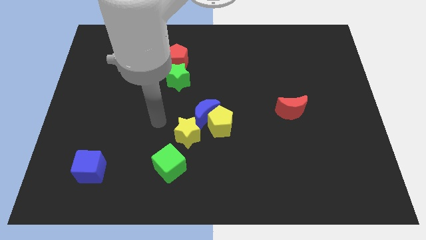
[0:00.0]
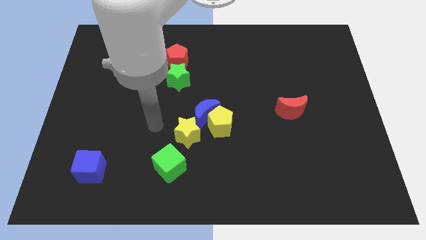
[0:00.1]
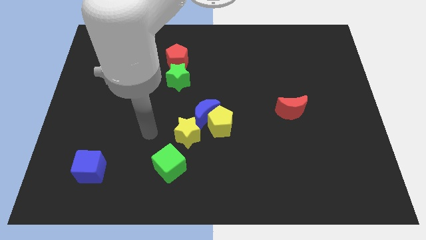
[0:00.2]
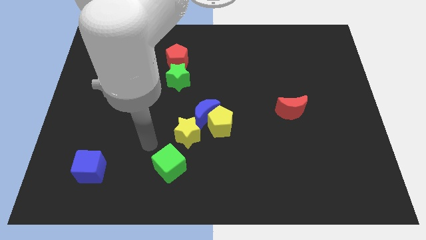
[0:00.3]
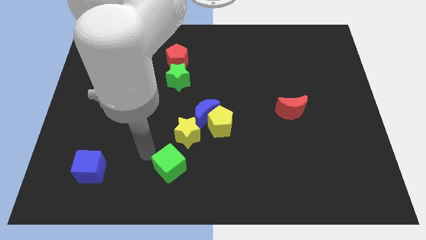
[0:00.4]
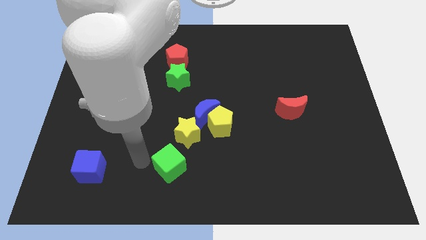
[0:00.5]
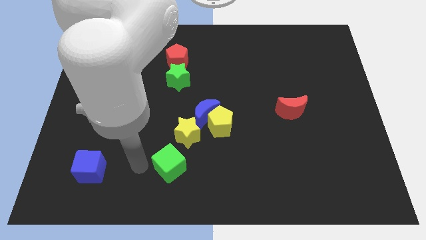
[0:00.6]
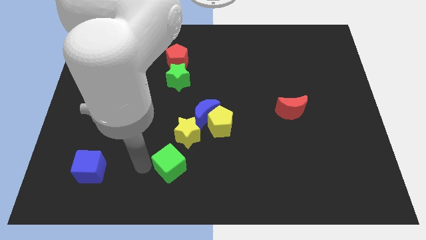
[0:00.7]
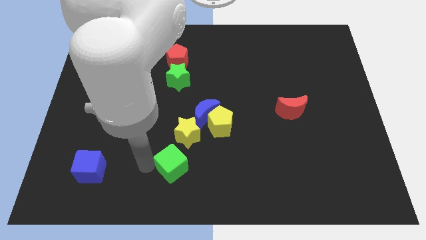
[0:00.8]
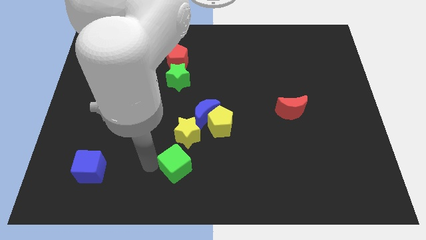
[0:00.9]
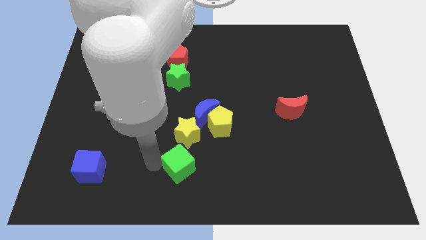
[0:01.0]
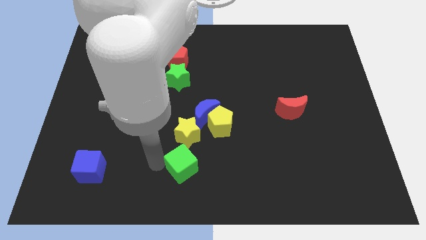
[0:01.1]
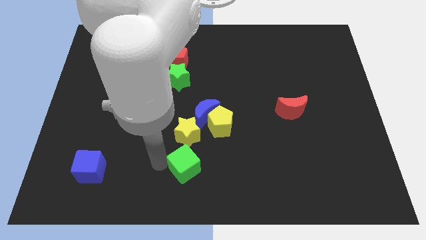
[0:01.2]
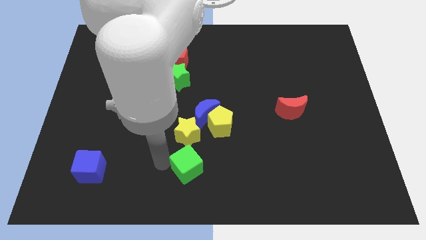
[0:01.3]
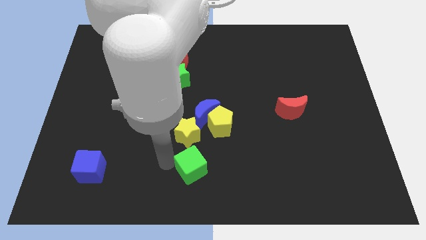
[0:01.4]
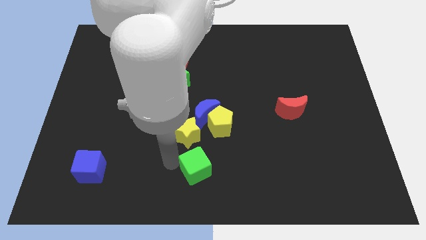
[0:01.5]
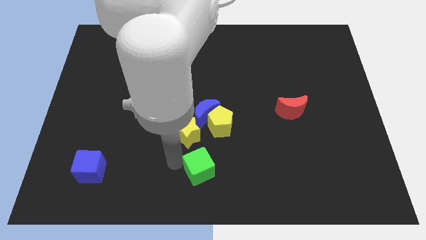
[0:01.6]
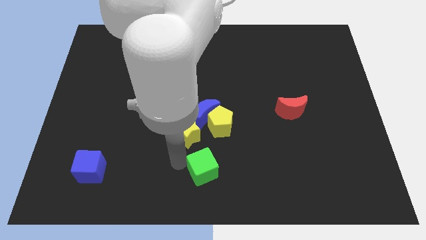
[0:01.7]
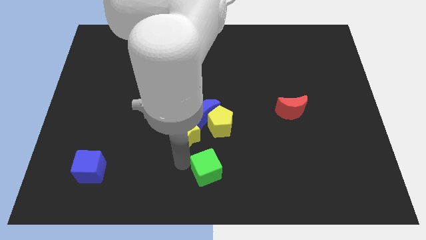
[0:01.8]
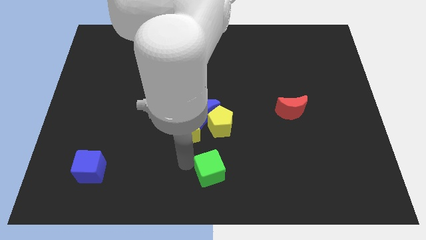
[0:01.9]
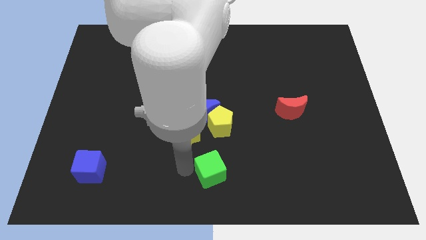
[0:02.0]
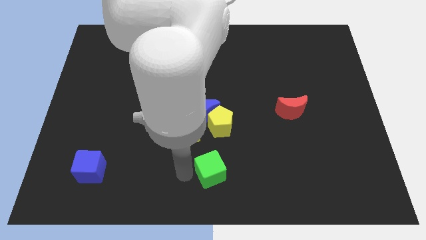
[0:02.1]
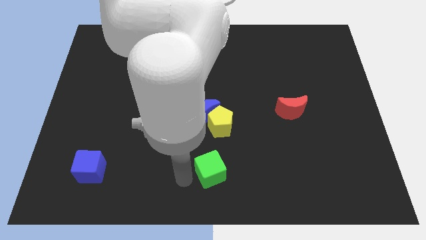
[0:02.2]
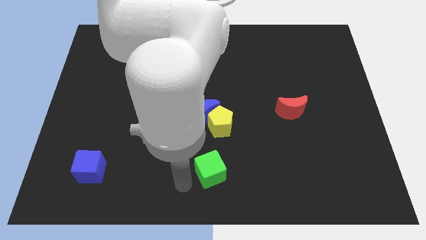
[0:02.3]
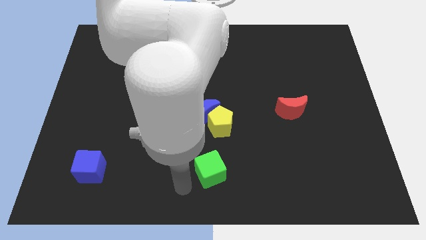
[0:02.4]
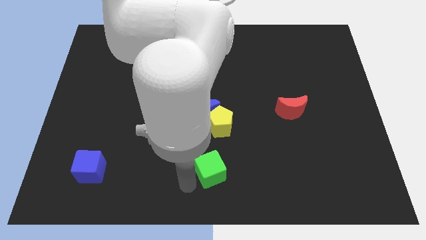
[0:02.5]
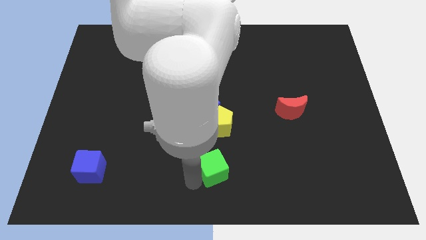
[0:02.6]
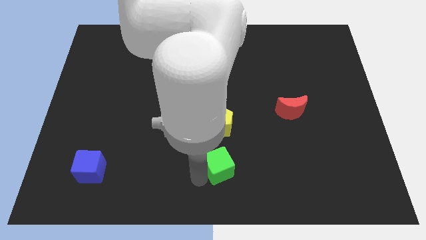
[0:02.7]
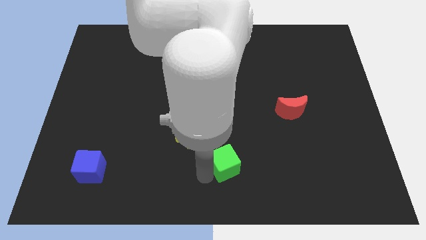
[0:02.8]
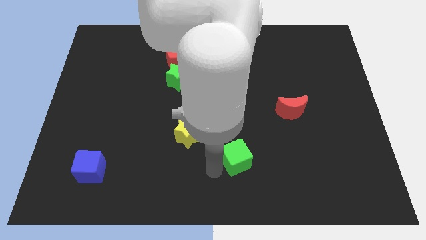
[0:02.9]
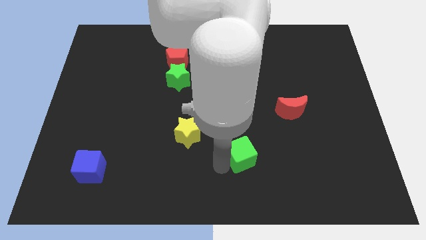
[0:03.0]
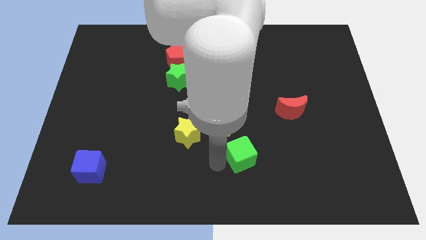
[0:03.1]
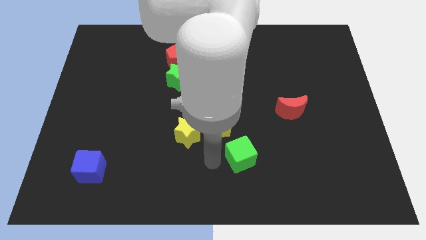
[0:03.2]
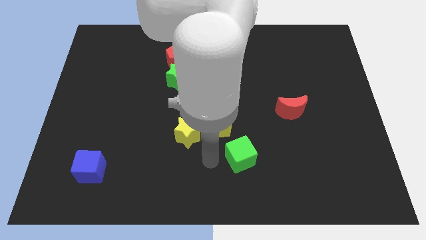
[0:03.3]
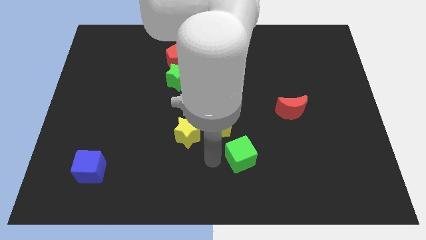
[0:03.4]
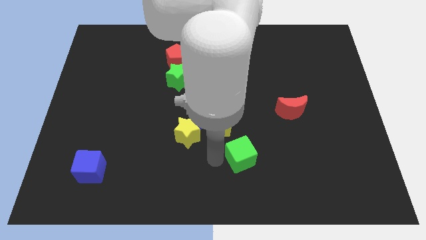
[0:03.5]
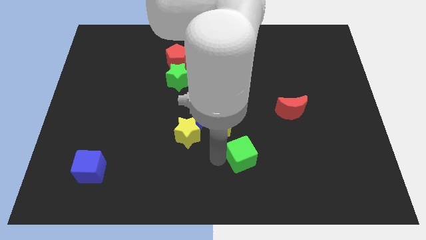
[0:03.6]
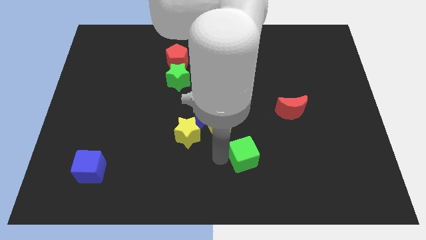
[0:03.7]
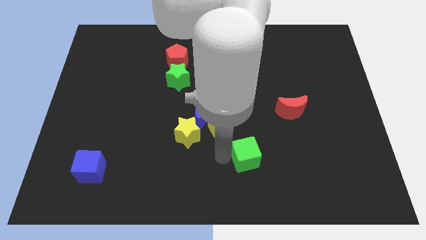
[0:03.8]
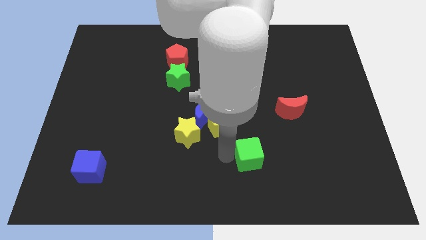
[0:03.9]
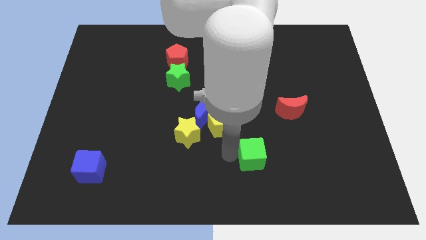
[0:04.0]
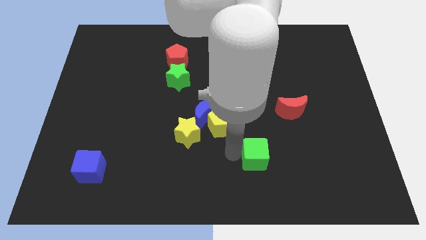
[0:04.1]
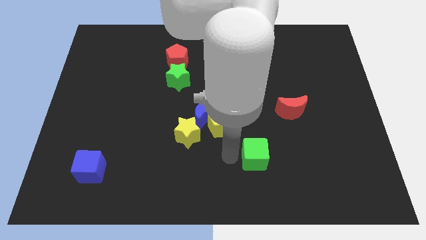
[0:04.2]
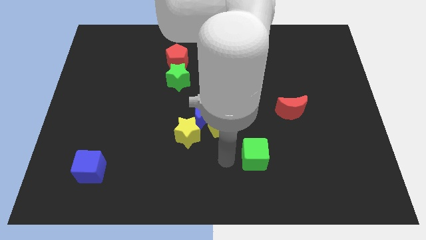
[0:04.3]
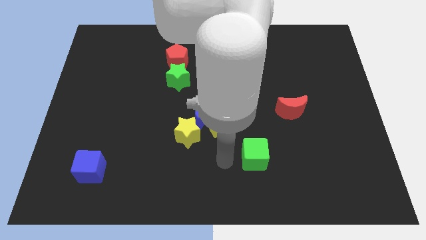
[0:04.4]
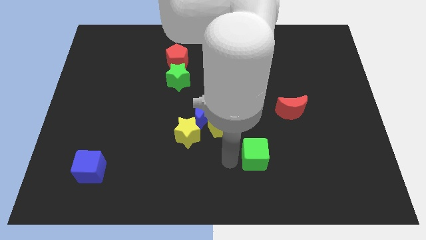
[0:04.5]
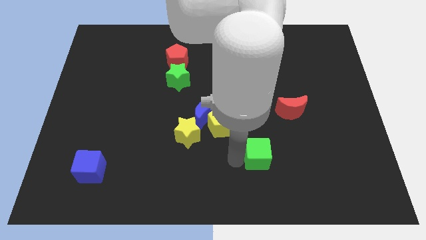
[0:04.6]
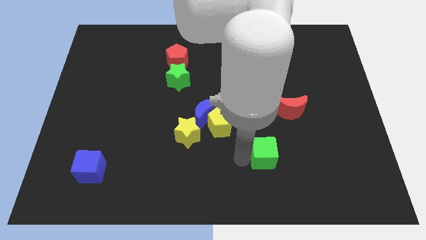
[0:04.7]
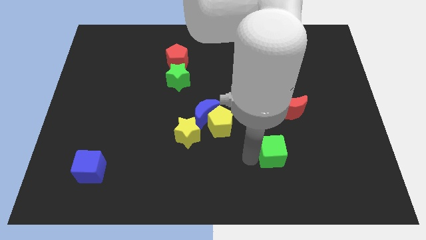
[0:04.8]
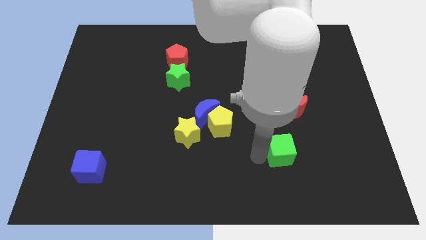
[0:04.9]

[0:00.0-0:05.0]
slide the green cube to the bottom of the red moon

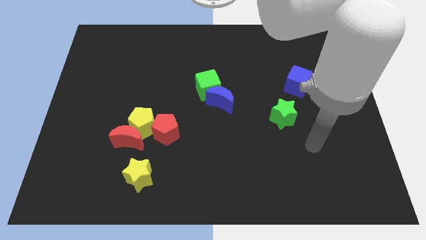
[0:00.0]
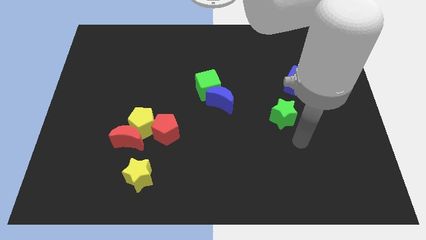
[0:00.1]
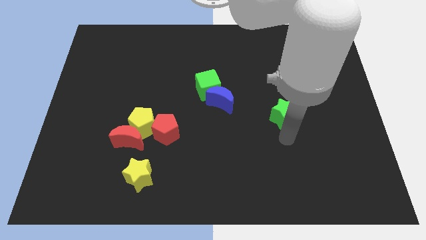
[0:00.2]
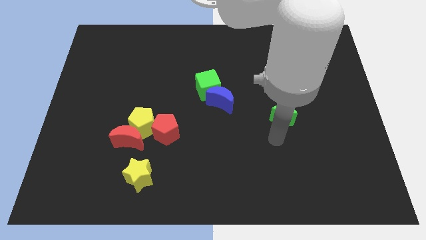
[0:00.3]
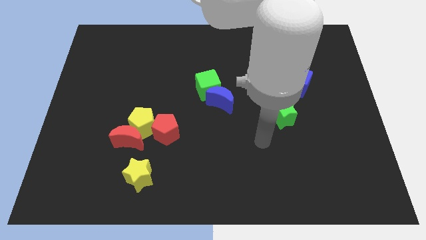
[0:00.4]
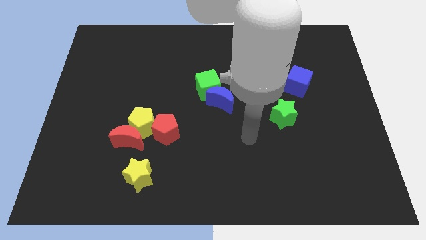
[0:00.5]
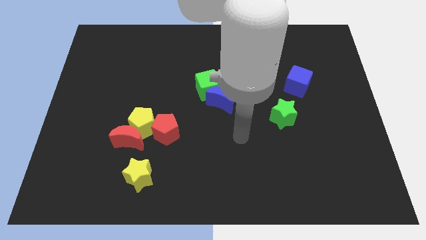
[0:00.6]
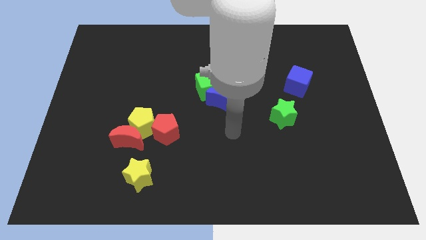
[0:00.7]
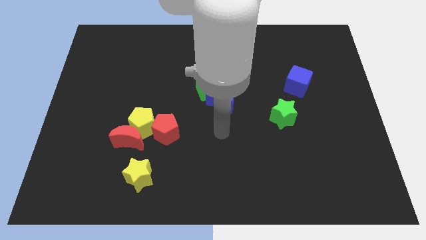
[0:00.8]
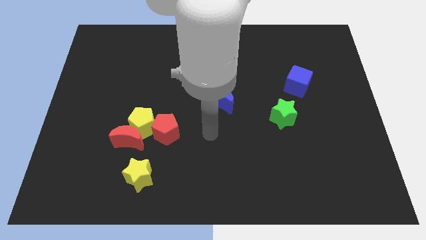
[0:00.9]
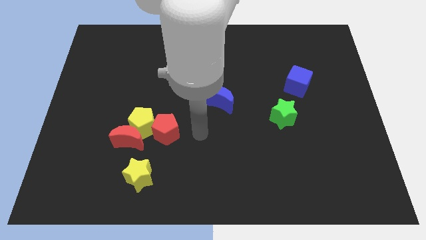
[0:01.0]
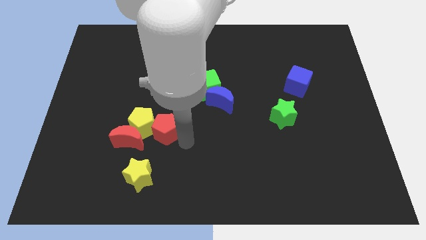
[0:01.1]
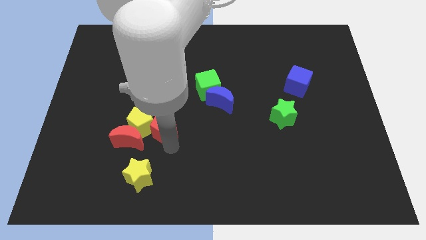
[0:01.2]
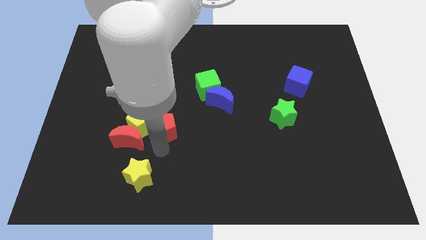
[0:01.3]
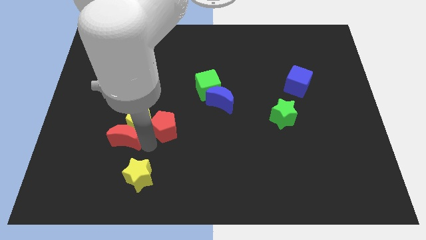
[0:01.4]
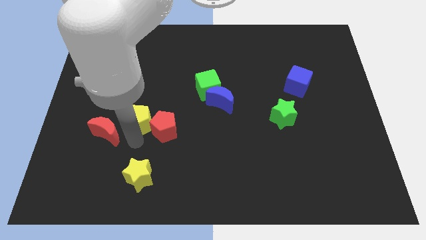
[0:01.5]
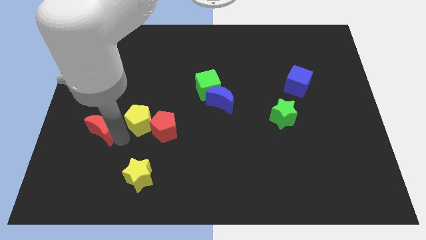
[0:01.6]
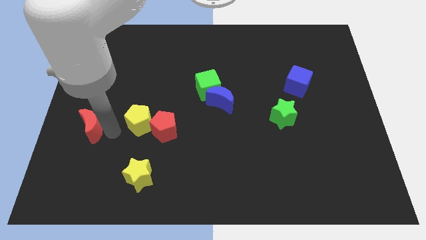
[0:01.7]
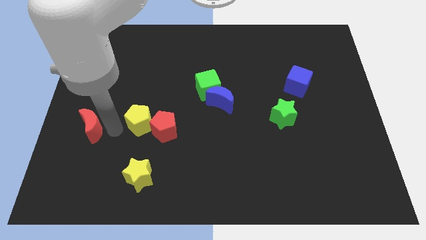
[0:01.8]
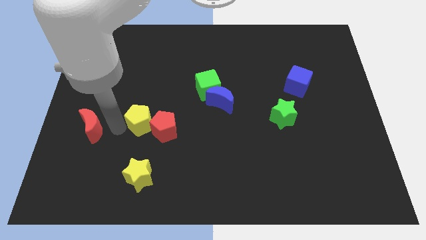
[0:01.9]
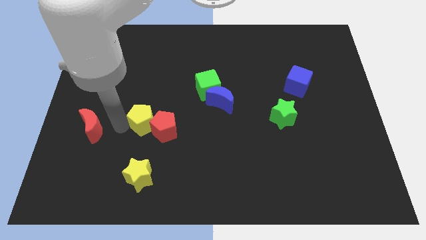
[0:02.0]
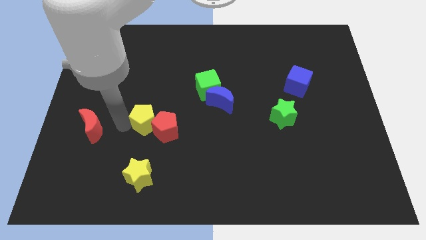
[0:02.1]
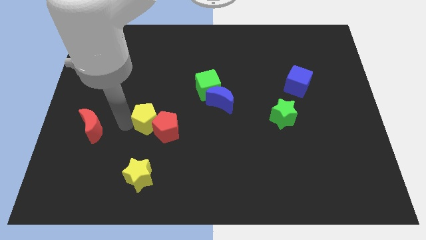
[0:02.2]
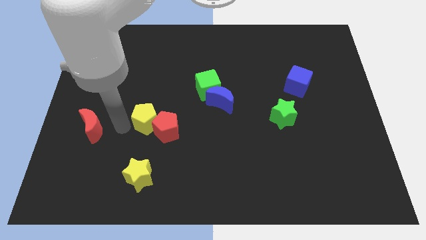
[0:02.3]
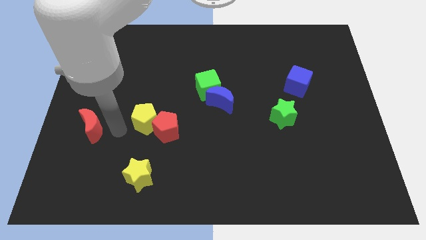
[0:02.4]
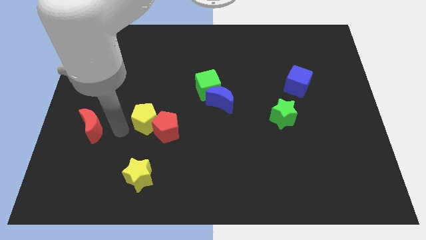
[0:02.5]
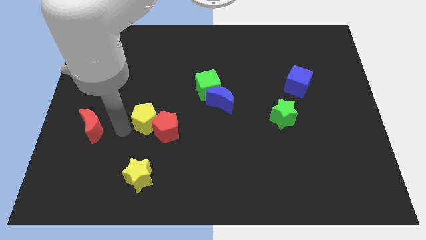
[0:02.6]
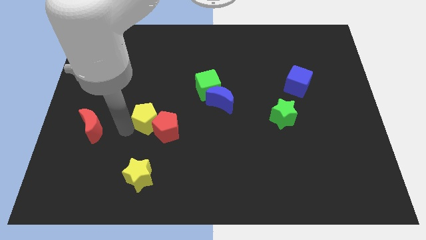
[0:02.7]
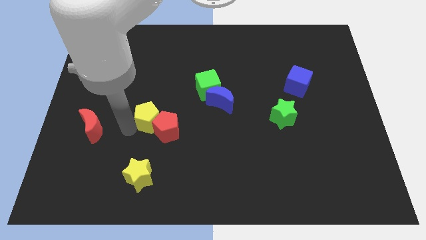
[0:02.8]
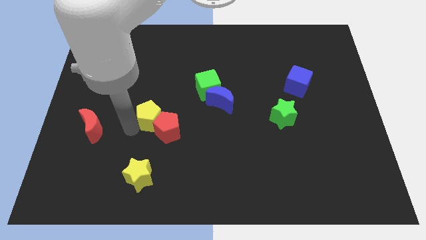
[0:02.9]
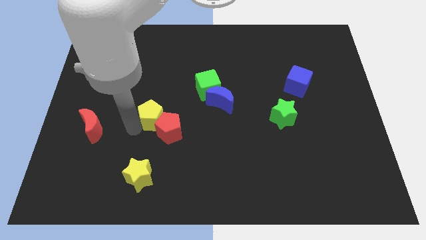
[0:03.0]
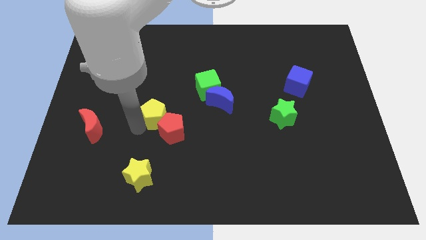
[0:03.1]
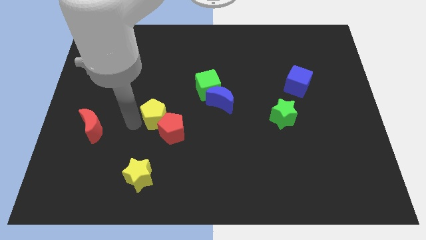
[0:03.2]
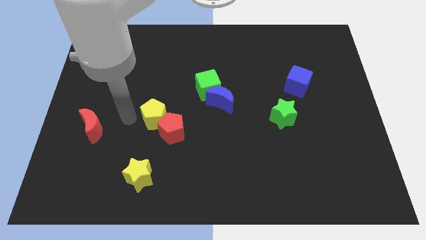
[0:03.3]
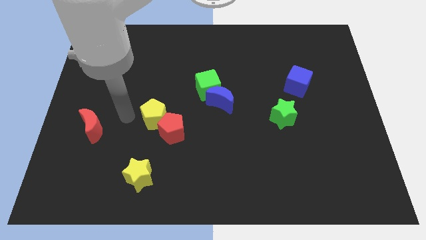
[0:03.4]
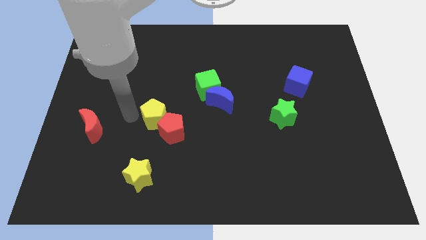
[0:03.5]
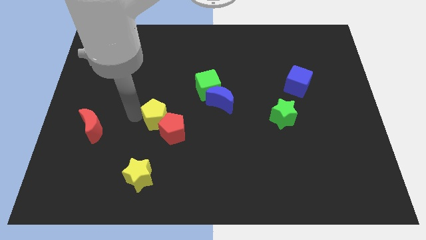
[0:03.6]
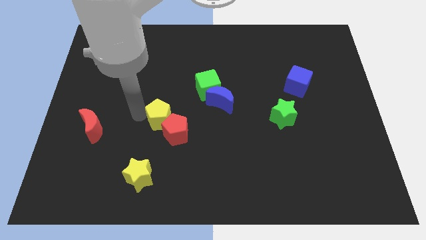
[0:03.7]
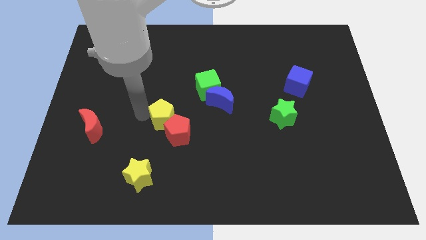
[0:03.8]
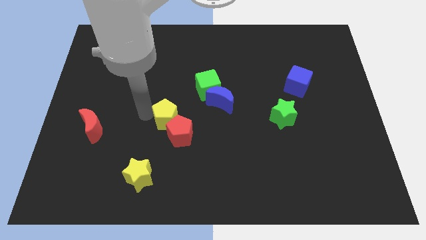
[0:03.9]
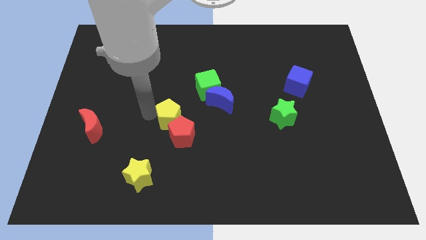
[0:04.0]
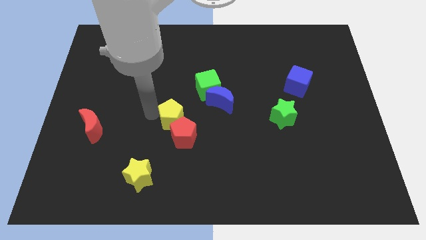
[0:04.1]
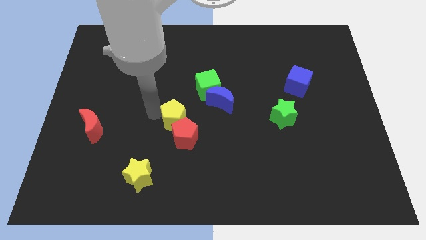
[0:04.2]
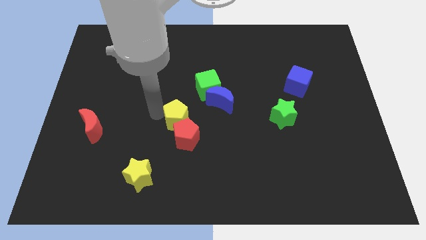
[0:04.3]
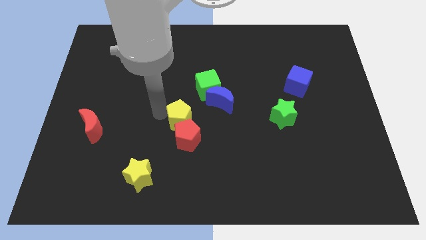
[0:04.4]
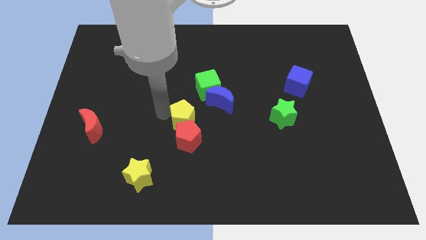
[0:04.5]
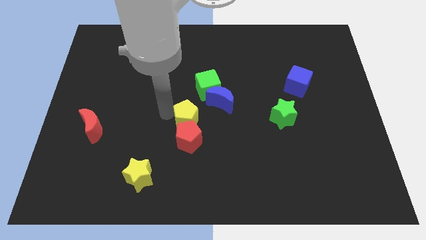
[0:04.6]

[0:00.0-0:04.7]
push the yellow pentagon below the green cube
